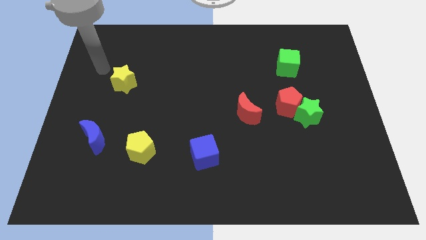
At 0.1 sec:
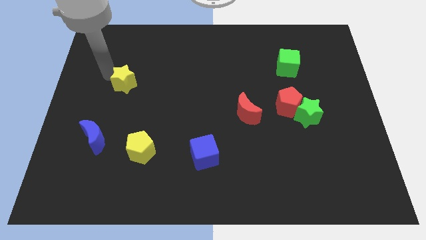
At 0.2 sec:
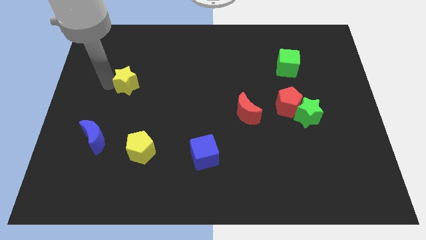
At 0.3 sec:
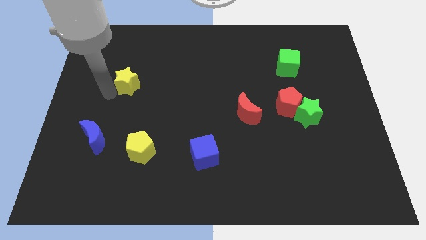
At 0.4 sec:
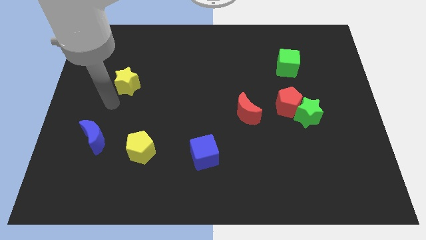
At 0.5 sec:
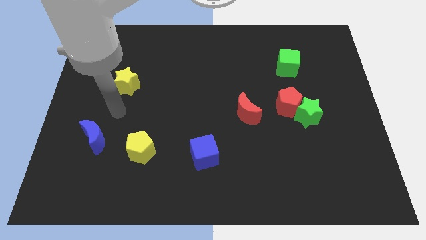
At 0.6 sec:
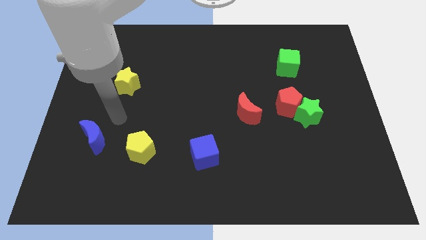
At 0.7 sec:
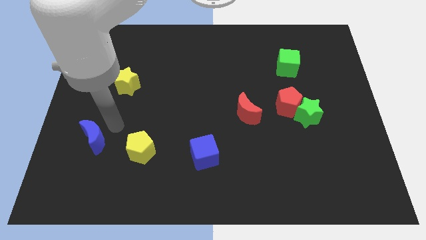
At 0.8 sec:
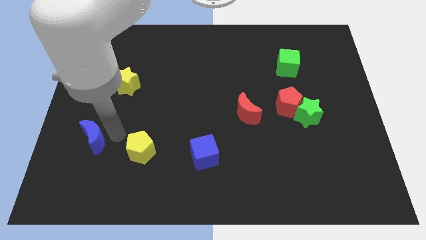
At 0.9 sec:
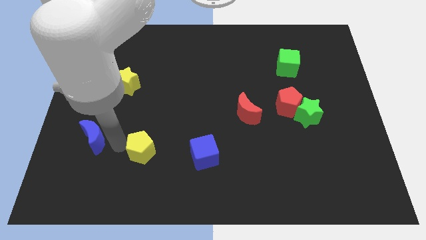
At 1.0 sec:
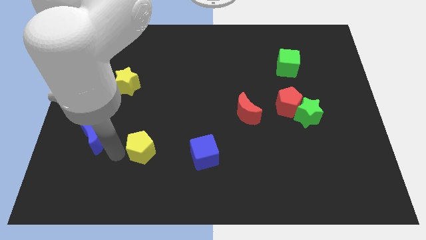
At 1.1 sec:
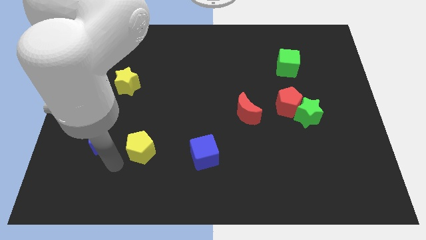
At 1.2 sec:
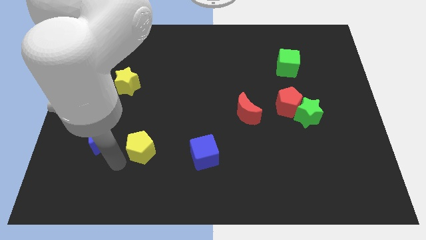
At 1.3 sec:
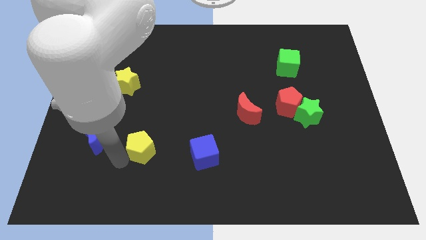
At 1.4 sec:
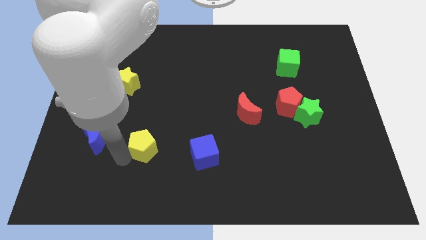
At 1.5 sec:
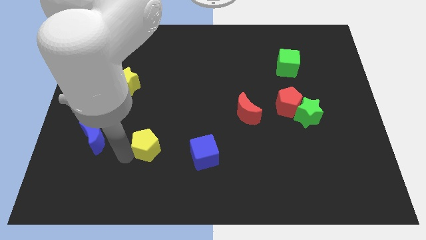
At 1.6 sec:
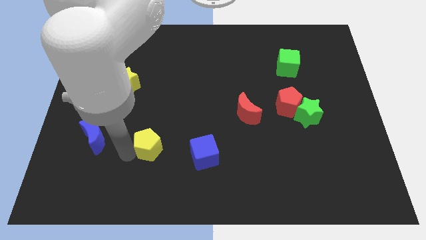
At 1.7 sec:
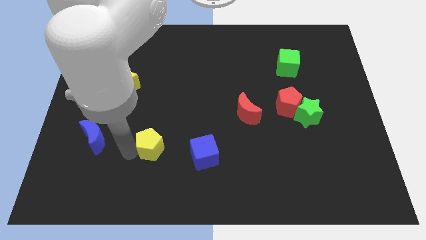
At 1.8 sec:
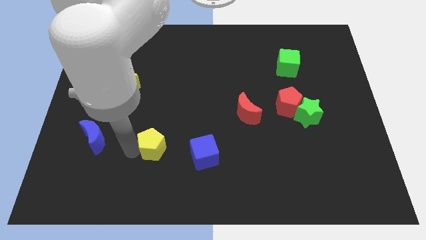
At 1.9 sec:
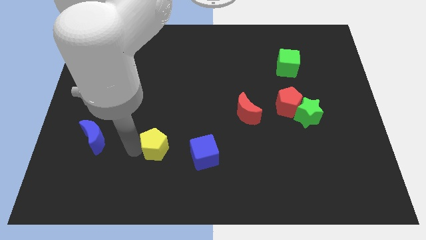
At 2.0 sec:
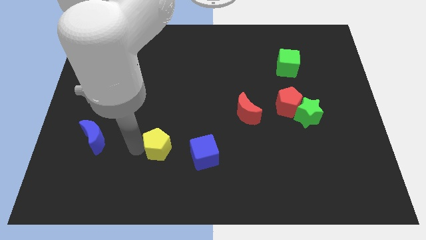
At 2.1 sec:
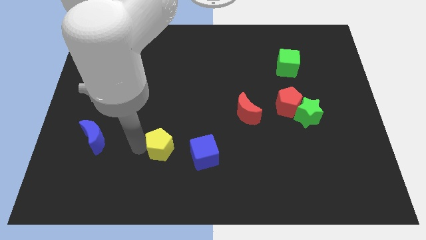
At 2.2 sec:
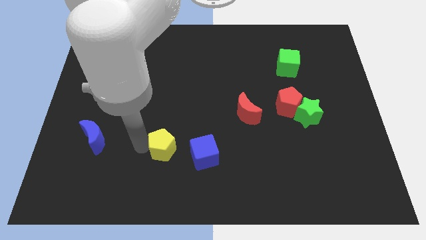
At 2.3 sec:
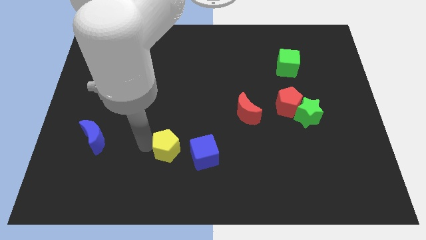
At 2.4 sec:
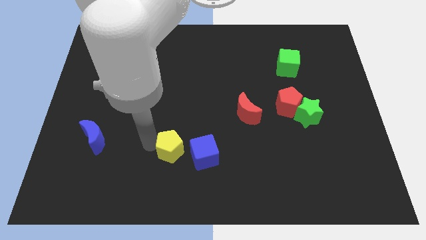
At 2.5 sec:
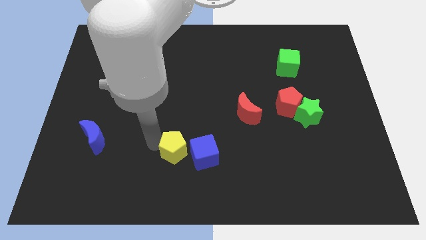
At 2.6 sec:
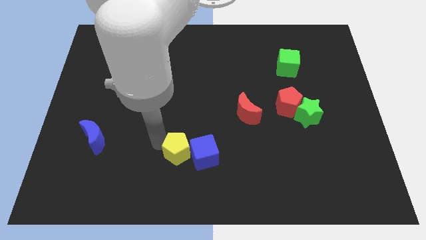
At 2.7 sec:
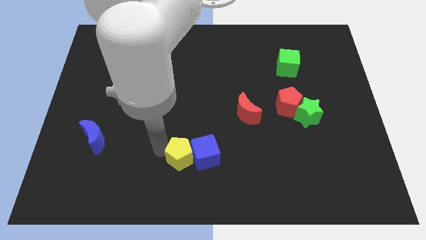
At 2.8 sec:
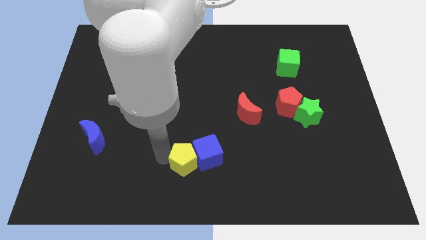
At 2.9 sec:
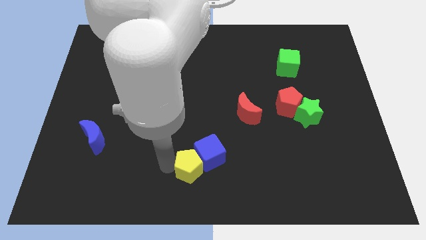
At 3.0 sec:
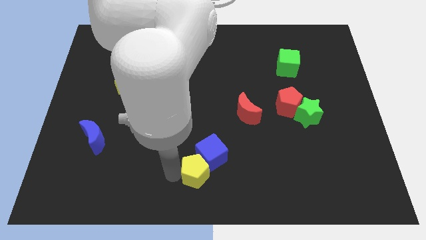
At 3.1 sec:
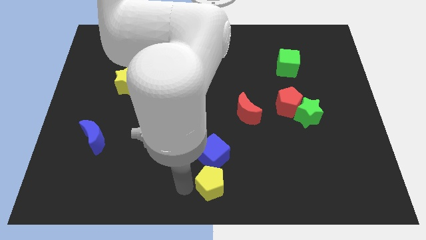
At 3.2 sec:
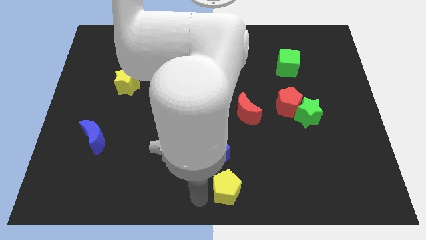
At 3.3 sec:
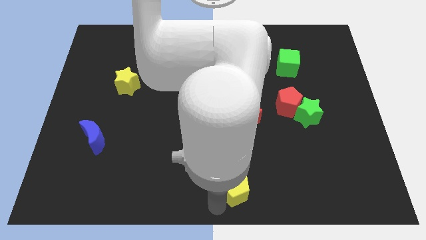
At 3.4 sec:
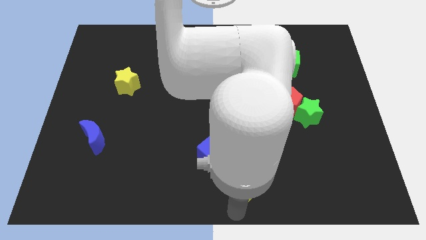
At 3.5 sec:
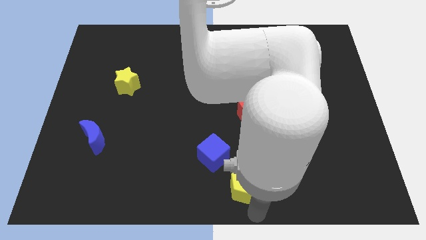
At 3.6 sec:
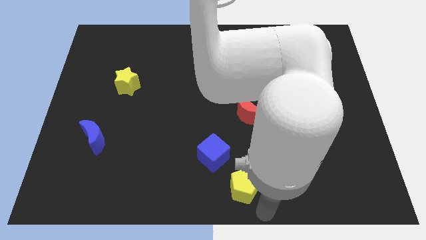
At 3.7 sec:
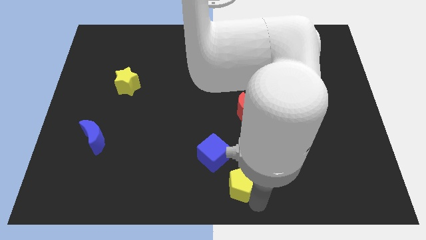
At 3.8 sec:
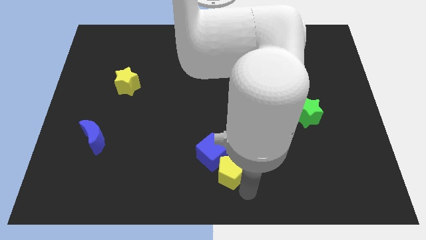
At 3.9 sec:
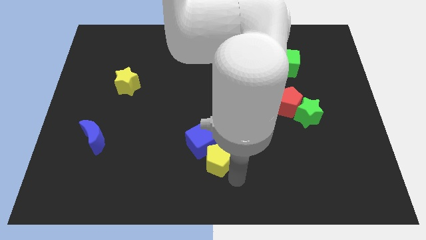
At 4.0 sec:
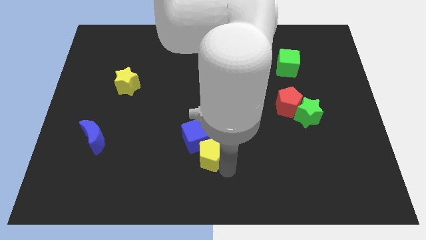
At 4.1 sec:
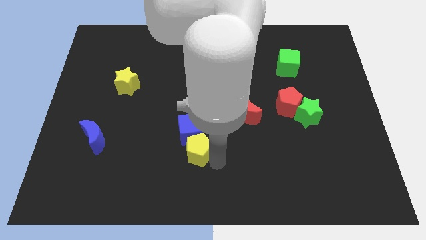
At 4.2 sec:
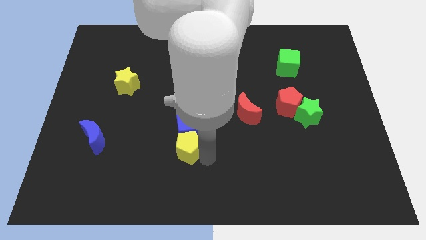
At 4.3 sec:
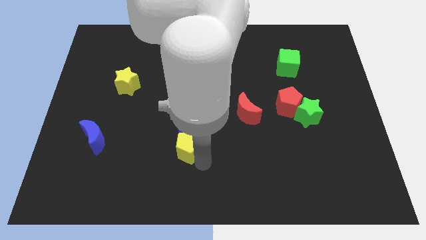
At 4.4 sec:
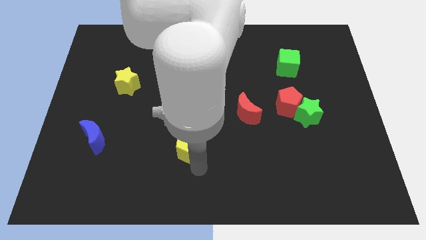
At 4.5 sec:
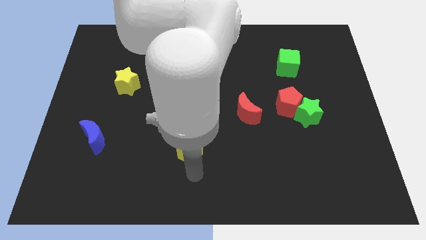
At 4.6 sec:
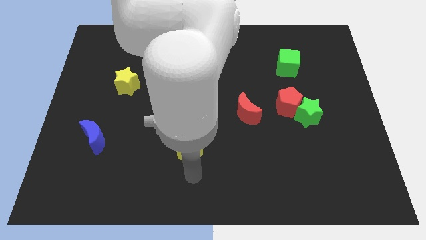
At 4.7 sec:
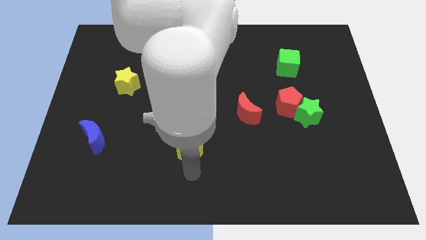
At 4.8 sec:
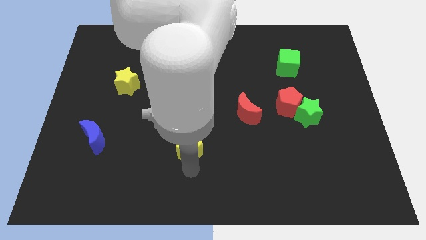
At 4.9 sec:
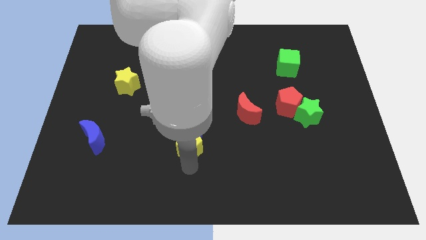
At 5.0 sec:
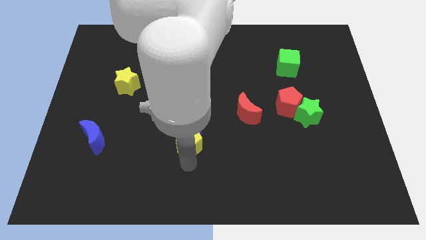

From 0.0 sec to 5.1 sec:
move the yellow pentagon upwards and to the right diagonally slightly

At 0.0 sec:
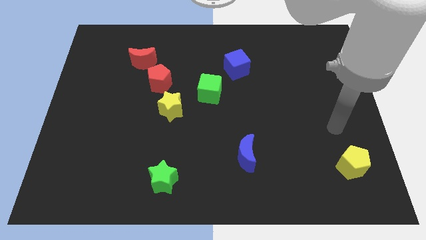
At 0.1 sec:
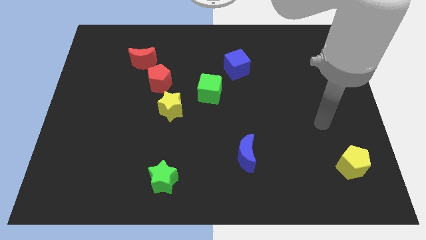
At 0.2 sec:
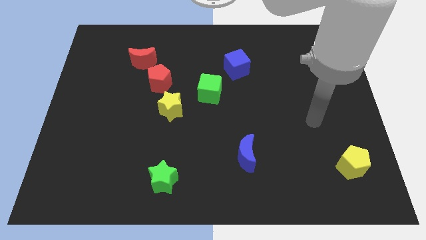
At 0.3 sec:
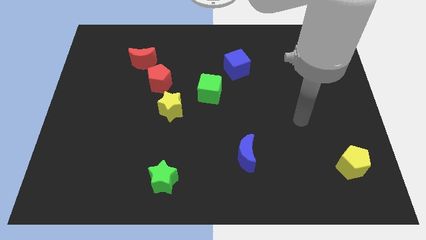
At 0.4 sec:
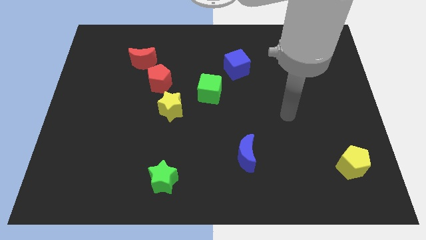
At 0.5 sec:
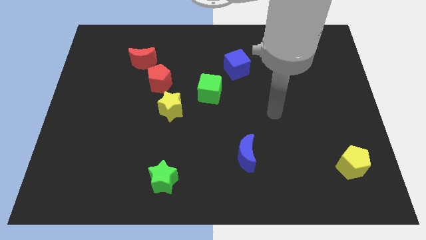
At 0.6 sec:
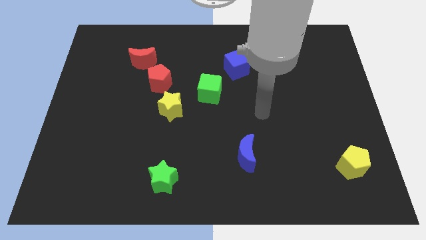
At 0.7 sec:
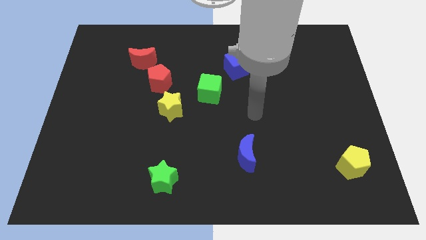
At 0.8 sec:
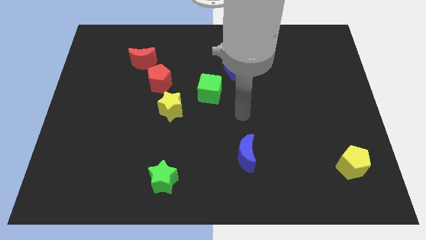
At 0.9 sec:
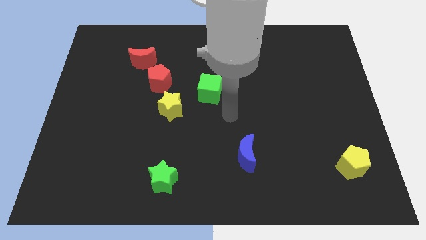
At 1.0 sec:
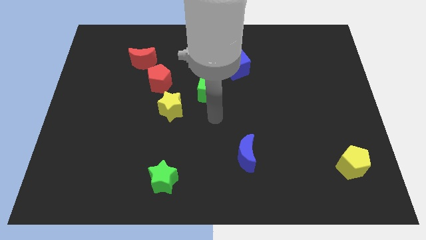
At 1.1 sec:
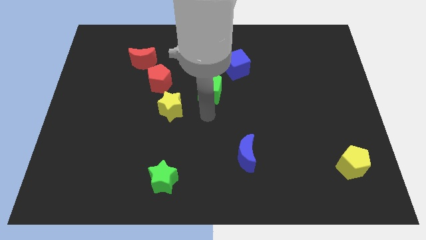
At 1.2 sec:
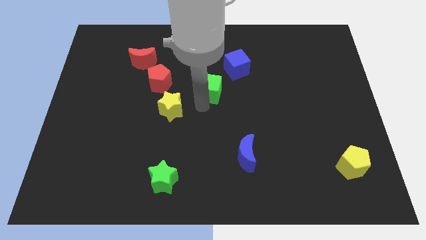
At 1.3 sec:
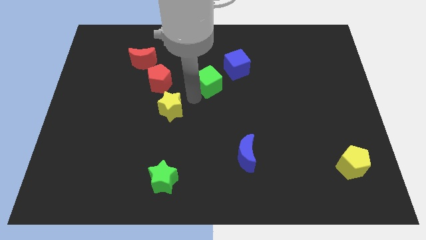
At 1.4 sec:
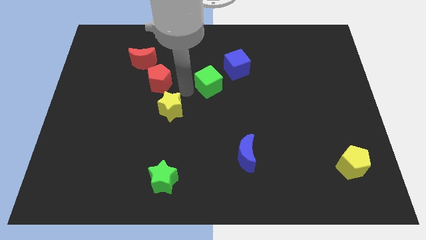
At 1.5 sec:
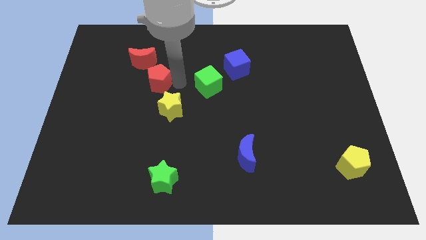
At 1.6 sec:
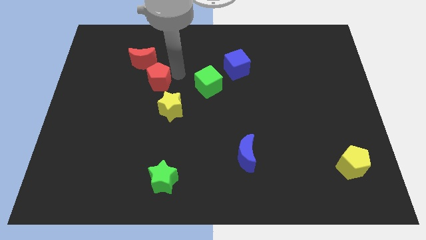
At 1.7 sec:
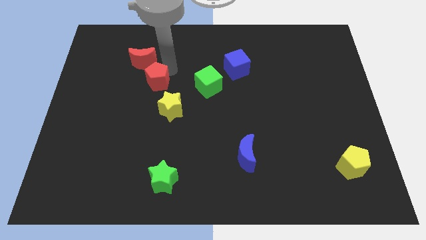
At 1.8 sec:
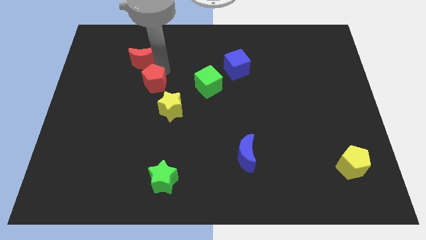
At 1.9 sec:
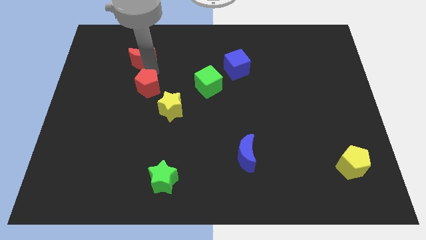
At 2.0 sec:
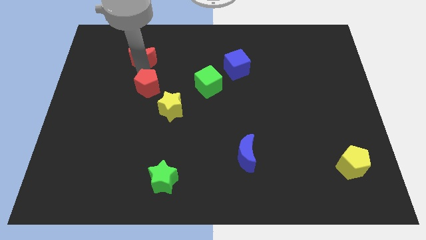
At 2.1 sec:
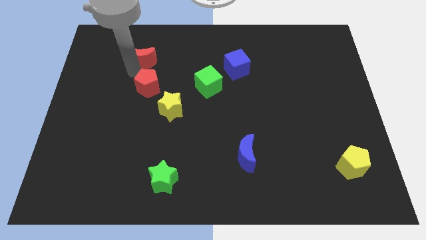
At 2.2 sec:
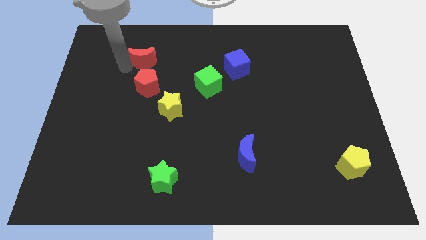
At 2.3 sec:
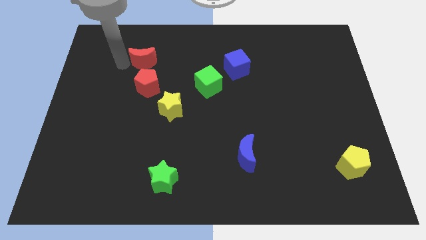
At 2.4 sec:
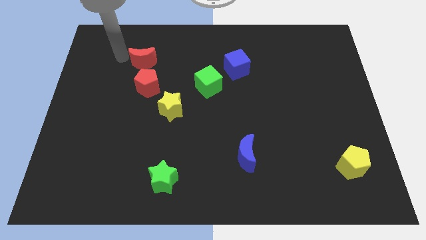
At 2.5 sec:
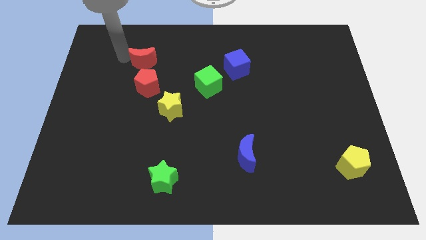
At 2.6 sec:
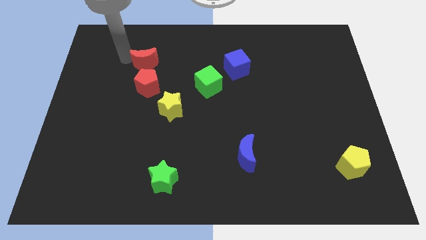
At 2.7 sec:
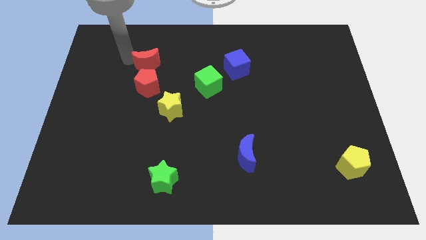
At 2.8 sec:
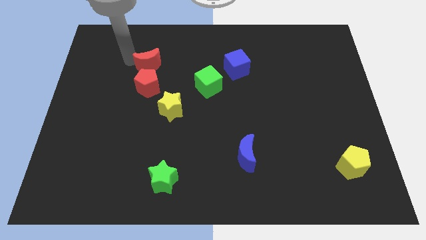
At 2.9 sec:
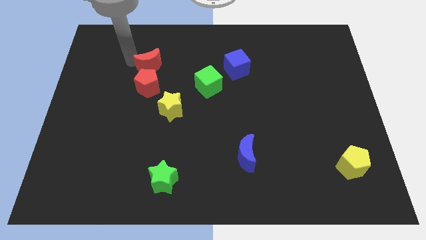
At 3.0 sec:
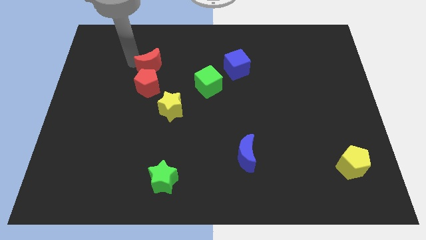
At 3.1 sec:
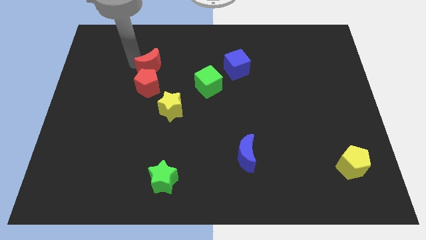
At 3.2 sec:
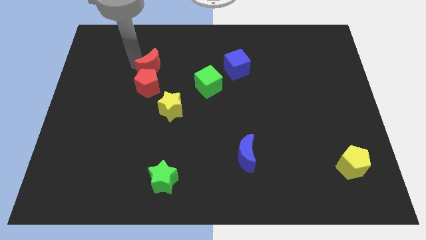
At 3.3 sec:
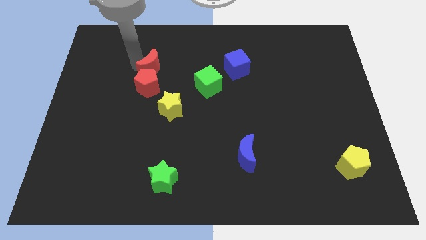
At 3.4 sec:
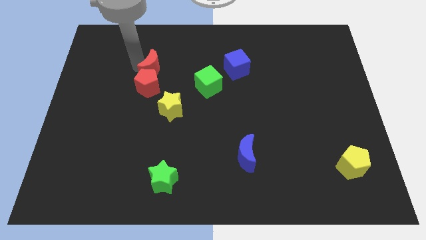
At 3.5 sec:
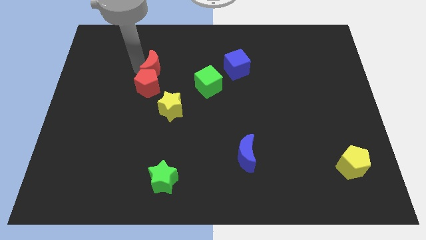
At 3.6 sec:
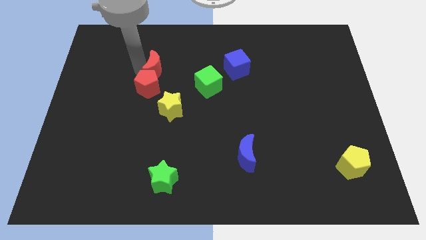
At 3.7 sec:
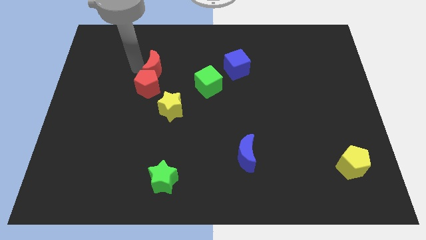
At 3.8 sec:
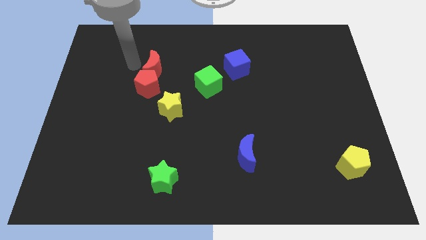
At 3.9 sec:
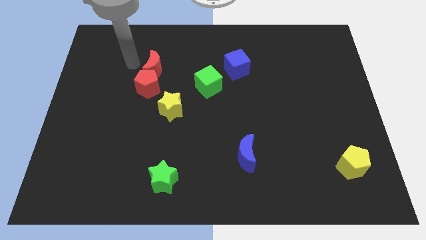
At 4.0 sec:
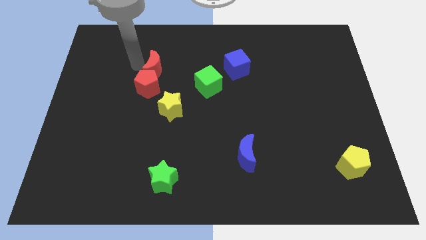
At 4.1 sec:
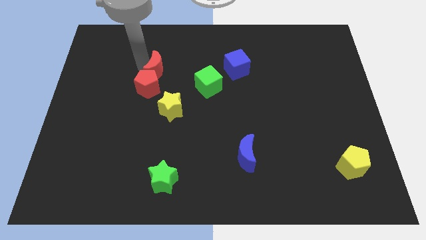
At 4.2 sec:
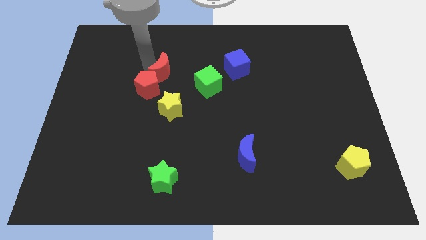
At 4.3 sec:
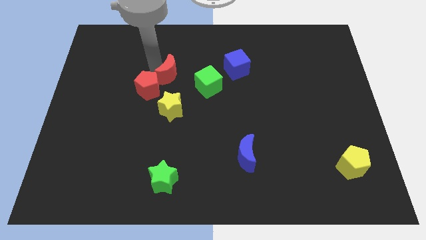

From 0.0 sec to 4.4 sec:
push the red moon a little diagonally down and to the right
